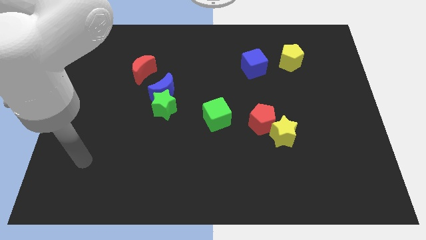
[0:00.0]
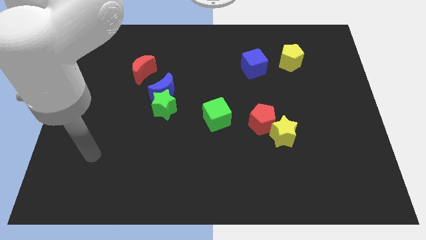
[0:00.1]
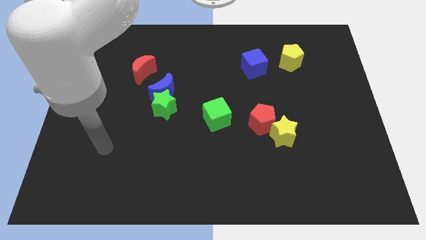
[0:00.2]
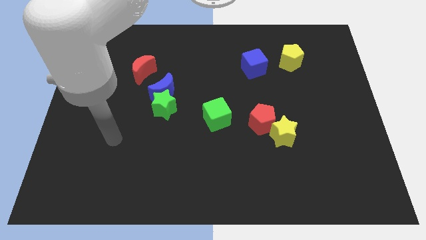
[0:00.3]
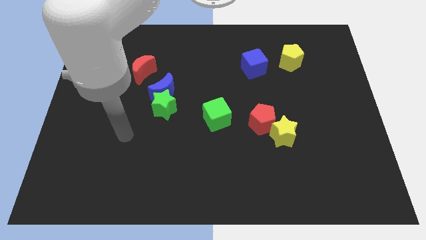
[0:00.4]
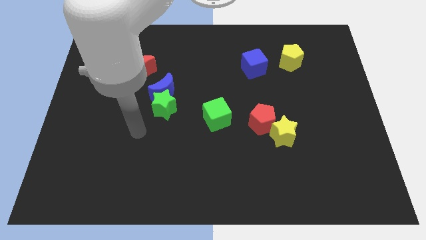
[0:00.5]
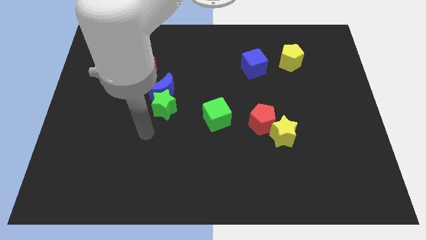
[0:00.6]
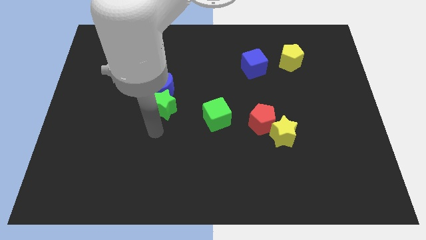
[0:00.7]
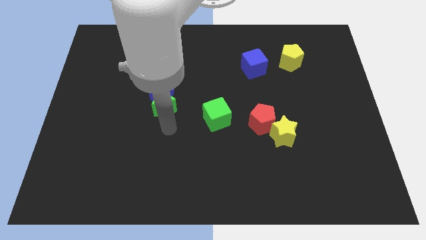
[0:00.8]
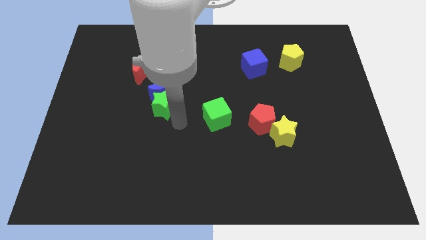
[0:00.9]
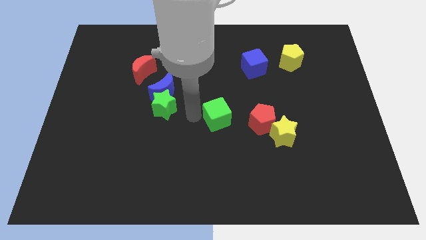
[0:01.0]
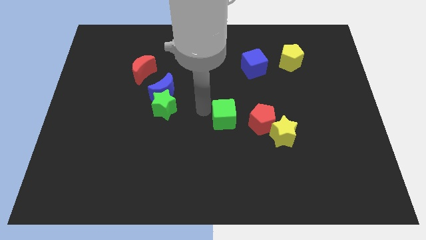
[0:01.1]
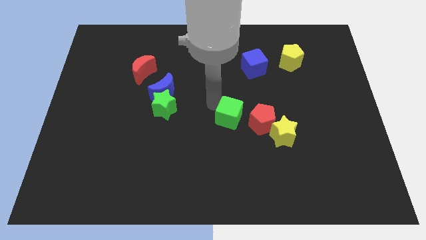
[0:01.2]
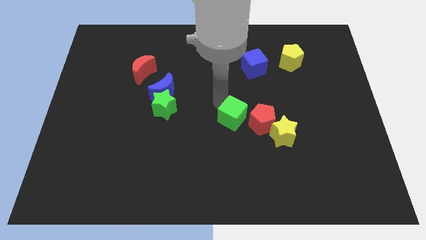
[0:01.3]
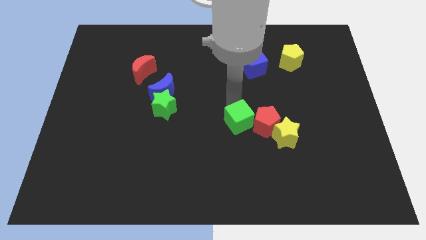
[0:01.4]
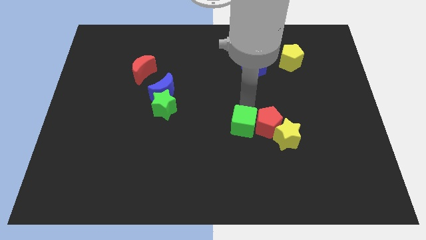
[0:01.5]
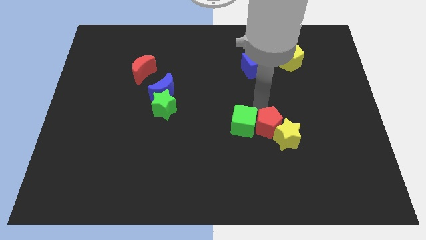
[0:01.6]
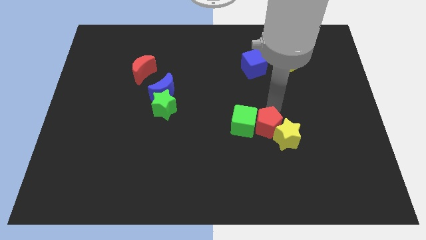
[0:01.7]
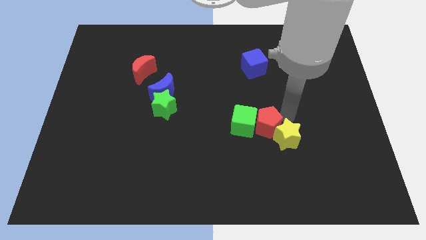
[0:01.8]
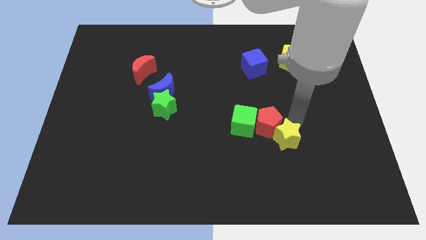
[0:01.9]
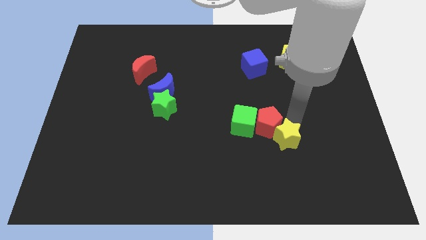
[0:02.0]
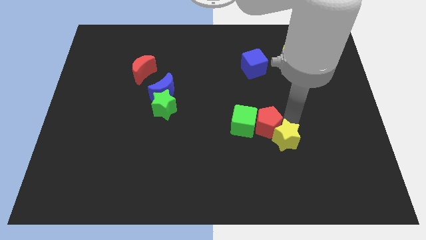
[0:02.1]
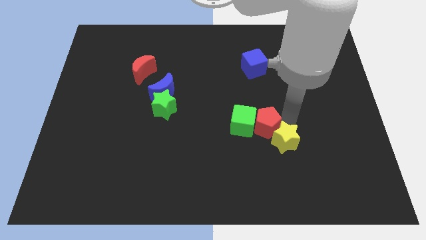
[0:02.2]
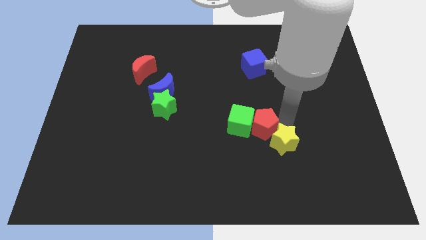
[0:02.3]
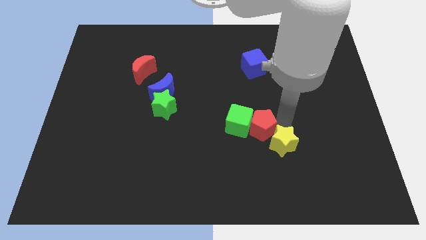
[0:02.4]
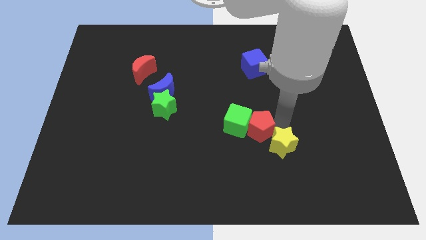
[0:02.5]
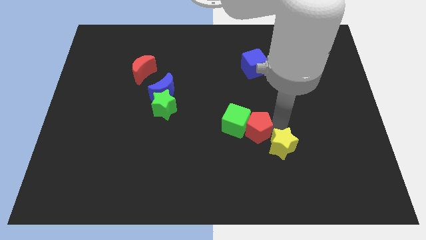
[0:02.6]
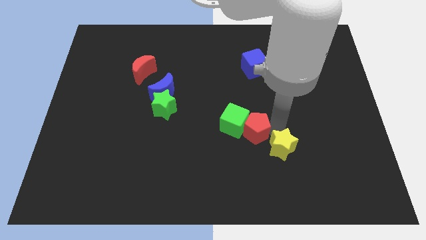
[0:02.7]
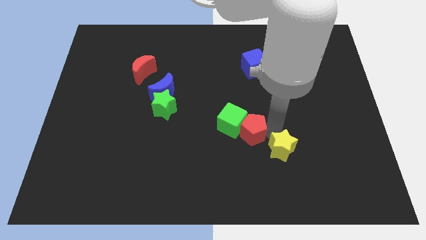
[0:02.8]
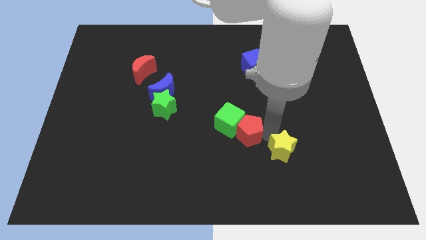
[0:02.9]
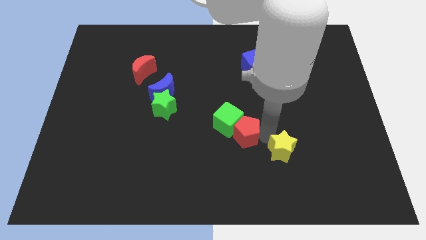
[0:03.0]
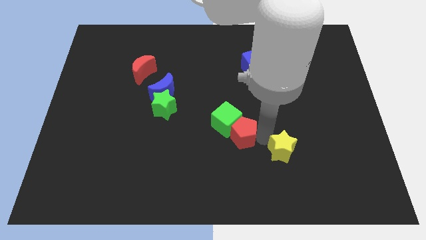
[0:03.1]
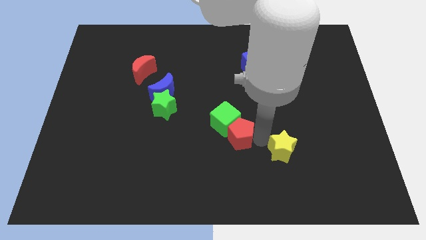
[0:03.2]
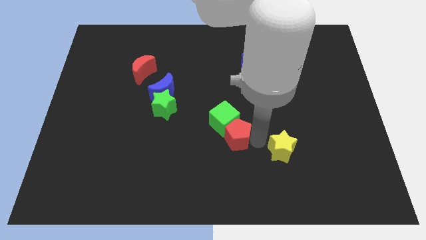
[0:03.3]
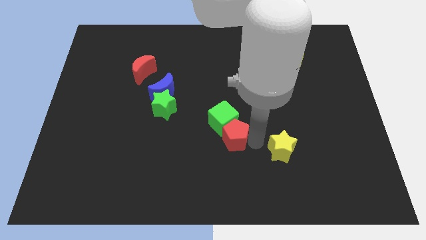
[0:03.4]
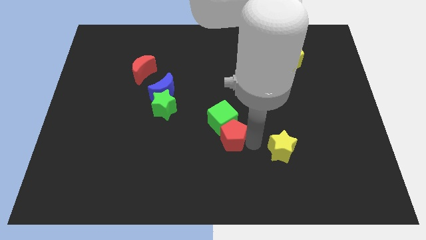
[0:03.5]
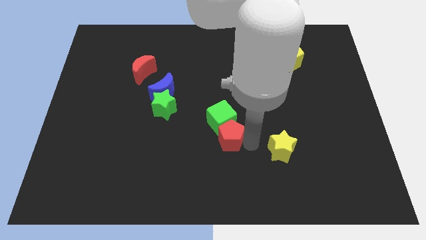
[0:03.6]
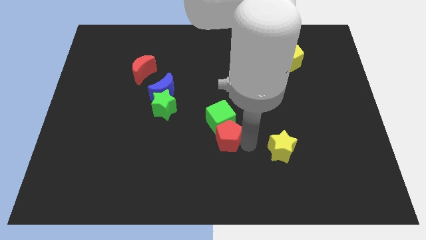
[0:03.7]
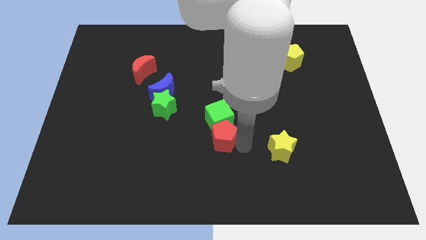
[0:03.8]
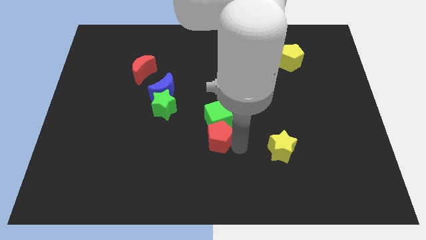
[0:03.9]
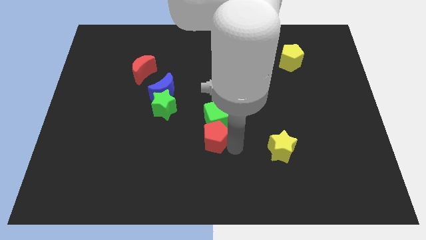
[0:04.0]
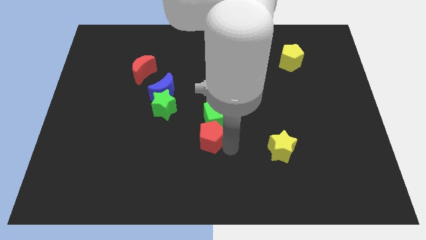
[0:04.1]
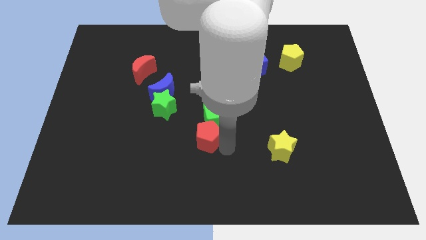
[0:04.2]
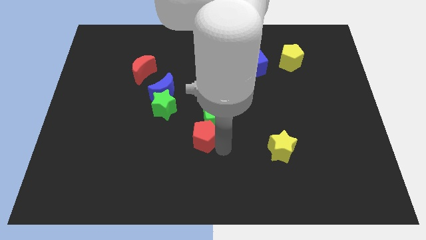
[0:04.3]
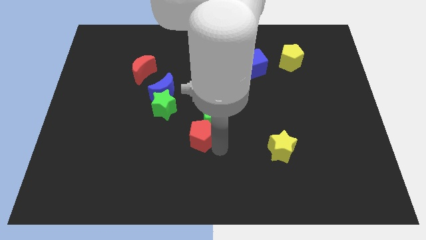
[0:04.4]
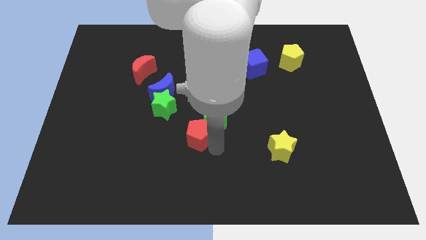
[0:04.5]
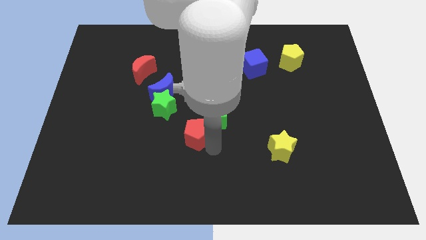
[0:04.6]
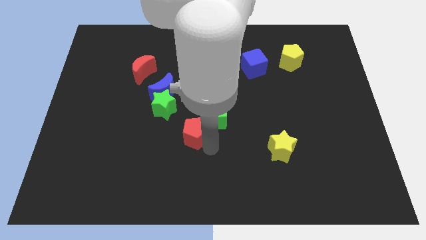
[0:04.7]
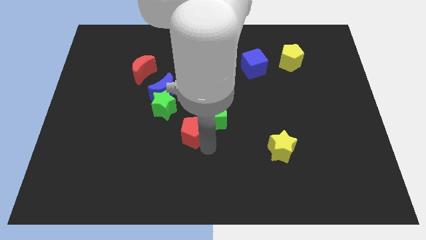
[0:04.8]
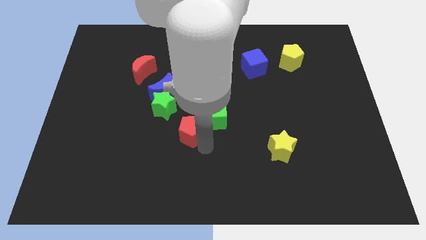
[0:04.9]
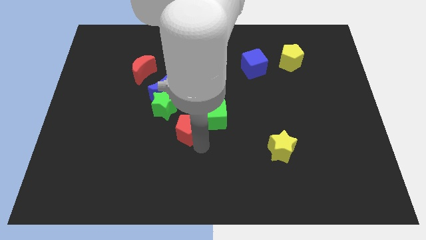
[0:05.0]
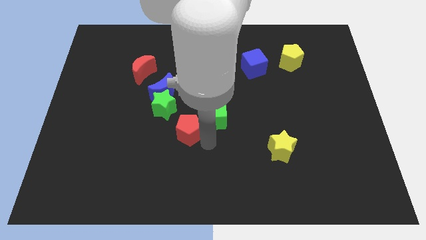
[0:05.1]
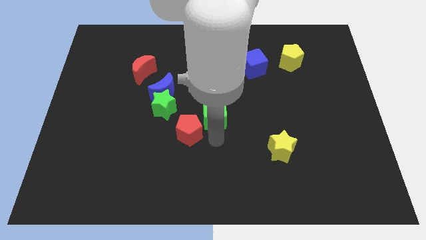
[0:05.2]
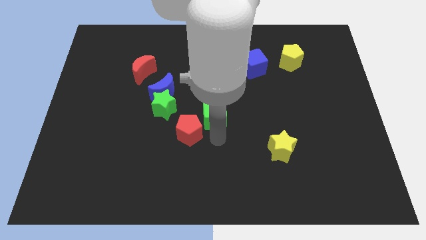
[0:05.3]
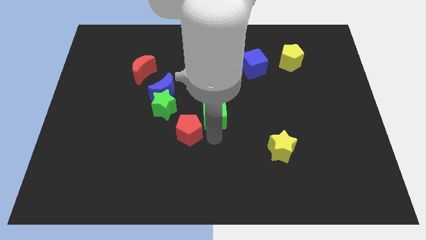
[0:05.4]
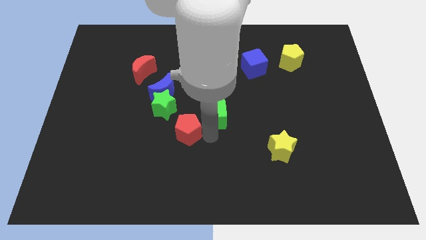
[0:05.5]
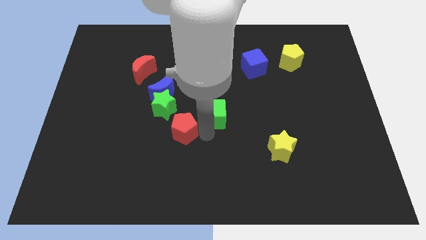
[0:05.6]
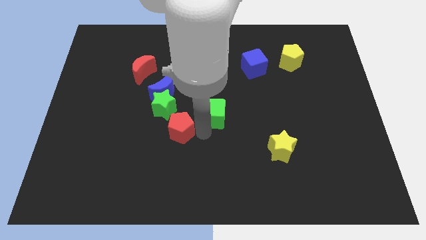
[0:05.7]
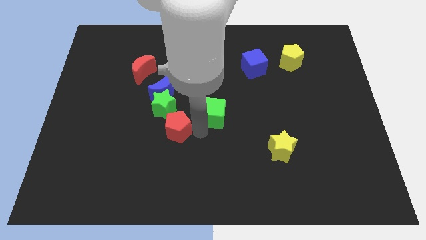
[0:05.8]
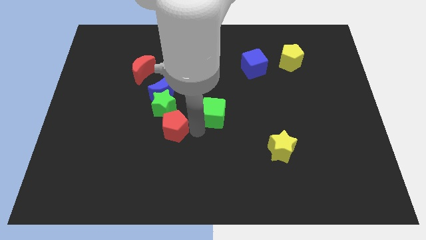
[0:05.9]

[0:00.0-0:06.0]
slide the red pentagon to the left

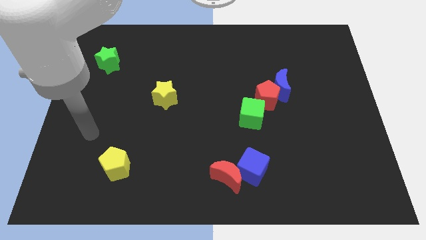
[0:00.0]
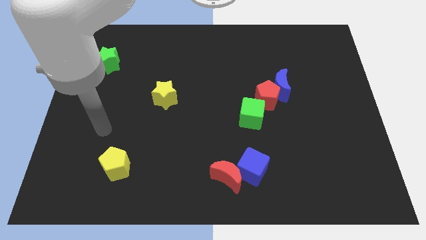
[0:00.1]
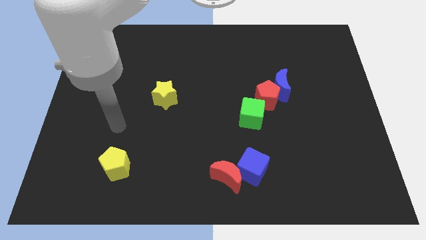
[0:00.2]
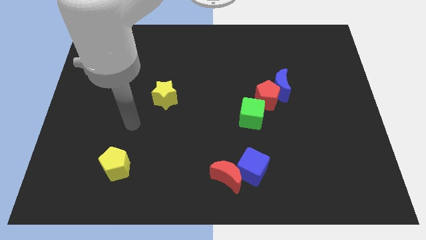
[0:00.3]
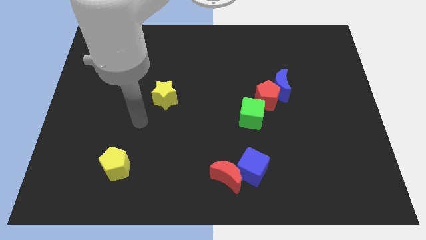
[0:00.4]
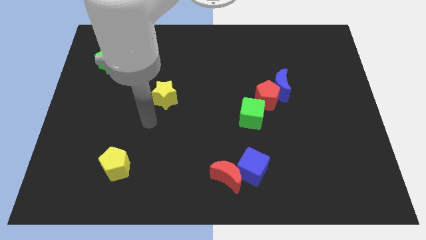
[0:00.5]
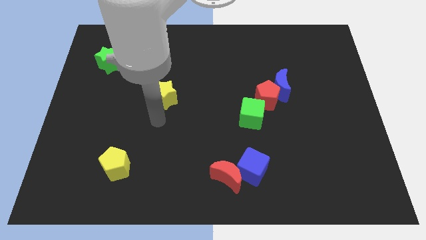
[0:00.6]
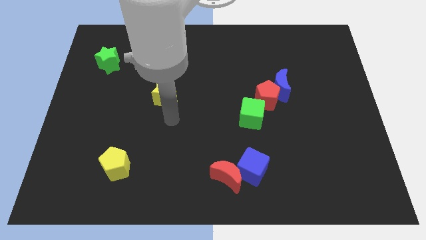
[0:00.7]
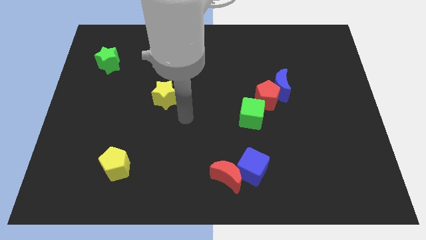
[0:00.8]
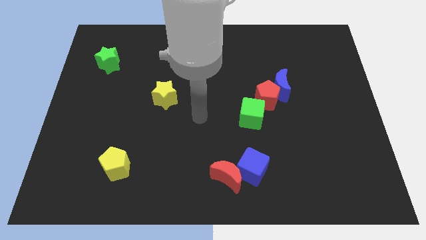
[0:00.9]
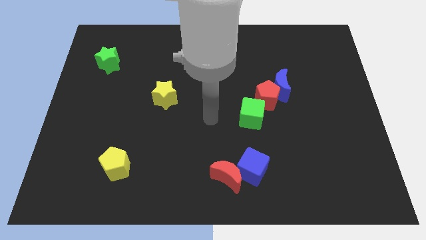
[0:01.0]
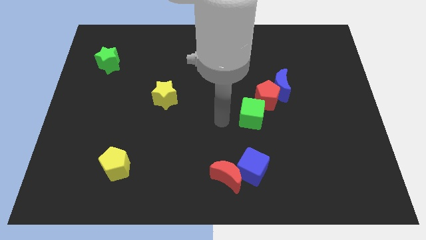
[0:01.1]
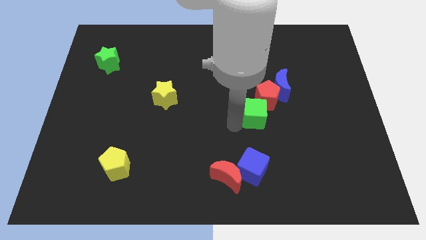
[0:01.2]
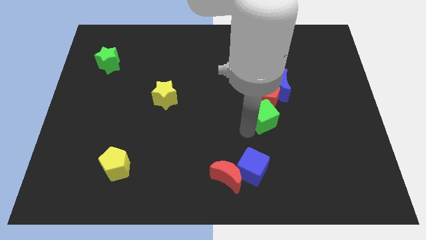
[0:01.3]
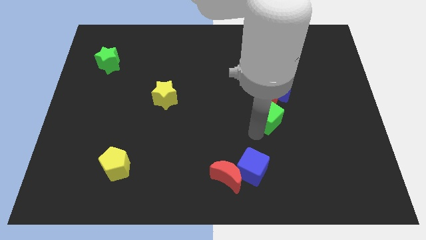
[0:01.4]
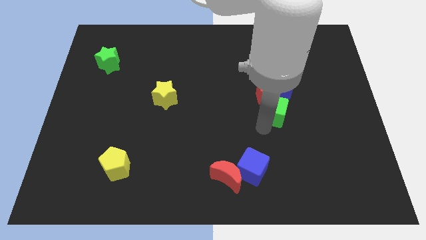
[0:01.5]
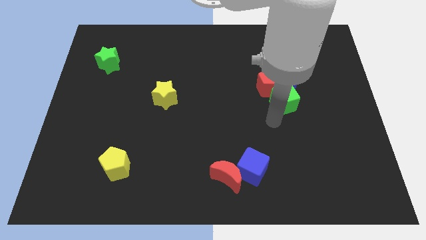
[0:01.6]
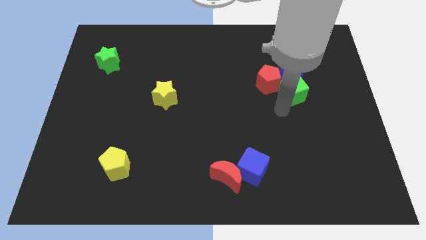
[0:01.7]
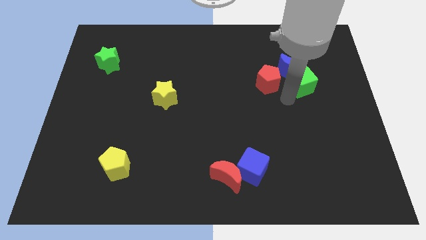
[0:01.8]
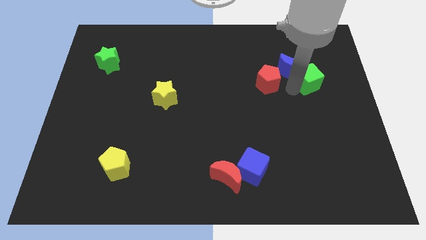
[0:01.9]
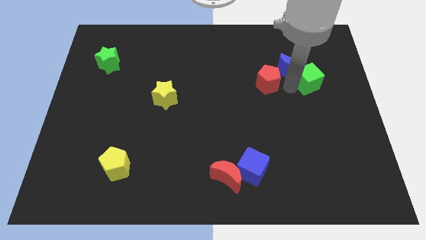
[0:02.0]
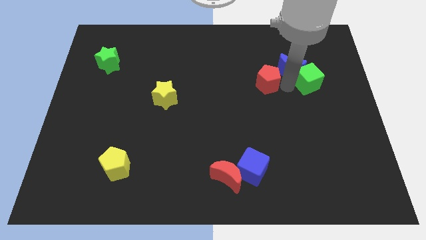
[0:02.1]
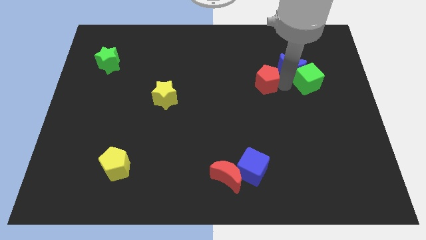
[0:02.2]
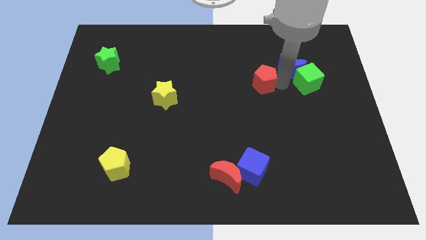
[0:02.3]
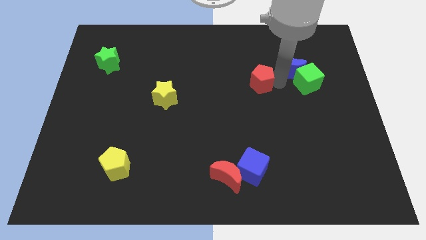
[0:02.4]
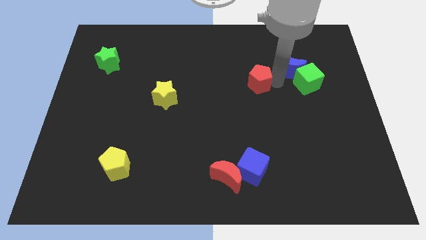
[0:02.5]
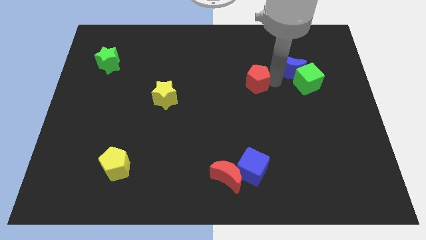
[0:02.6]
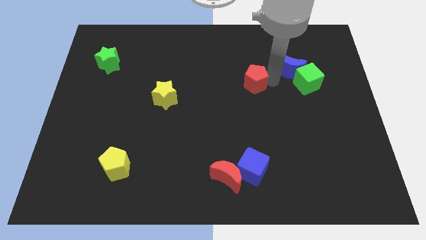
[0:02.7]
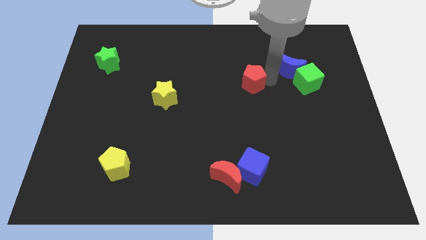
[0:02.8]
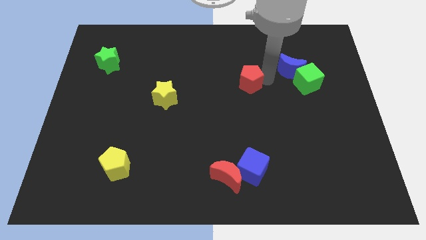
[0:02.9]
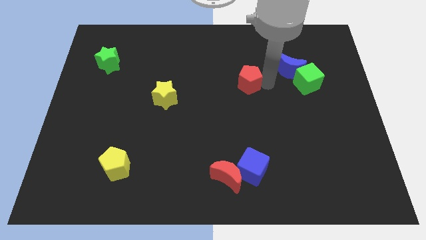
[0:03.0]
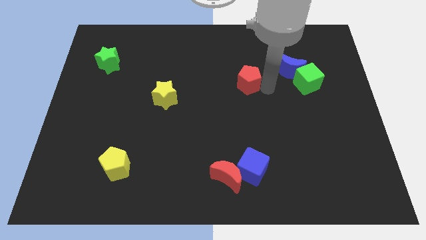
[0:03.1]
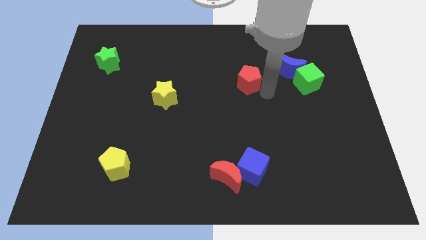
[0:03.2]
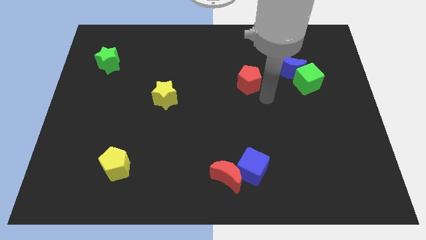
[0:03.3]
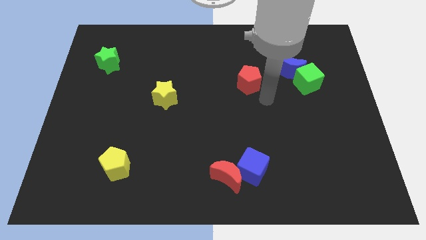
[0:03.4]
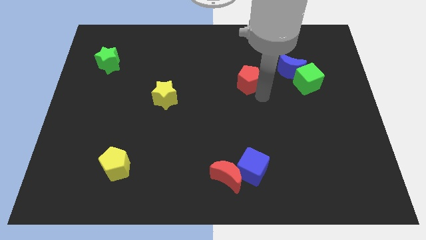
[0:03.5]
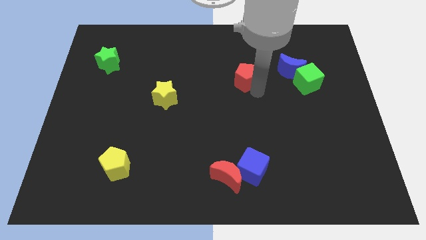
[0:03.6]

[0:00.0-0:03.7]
slide the red pentagon diagonally upwards and to the left slightly
